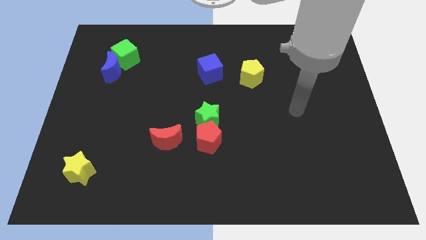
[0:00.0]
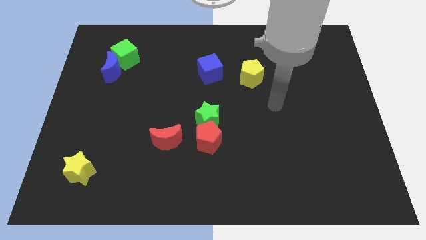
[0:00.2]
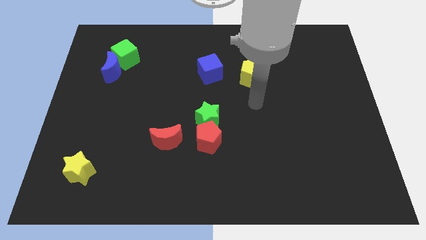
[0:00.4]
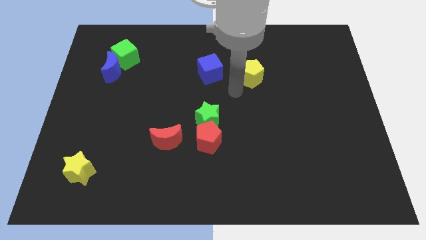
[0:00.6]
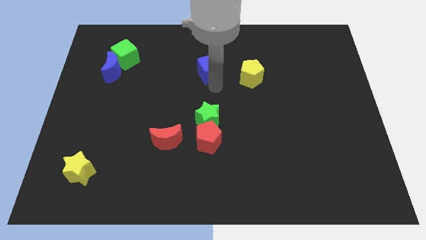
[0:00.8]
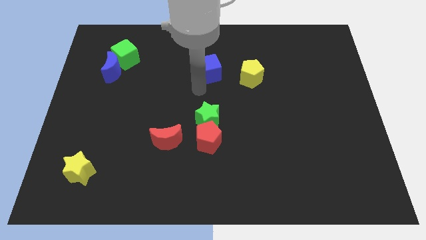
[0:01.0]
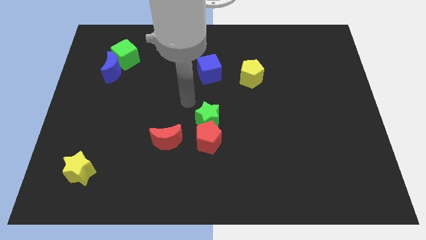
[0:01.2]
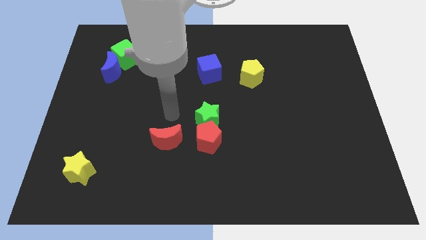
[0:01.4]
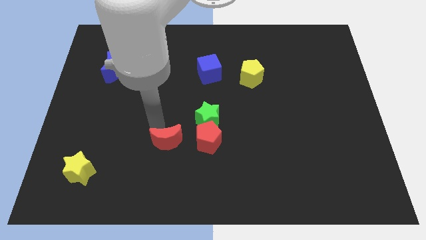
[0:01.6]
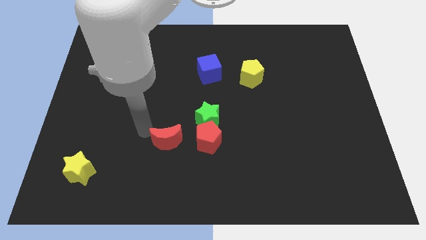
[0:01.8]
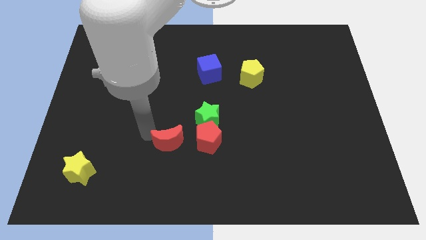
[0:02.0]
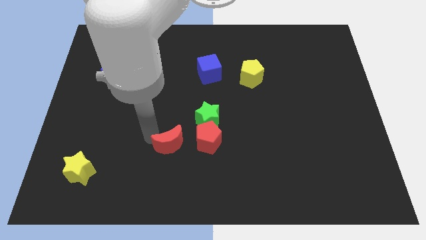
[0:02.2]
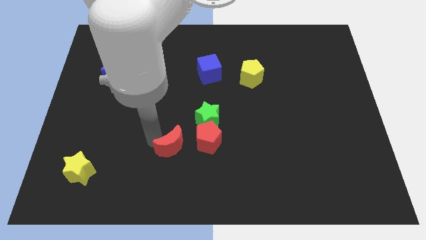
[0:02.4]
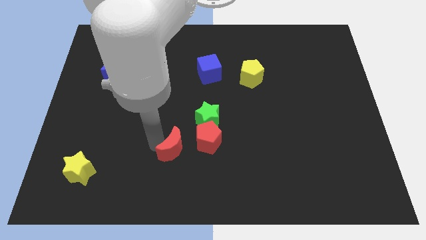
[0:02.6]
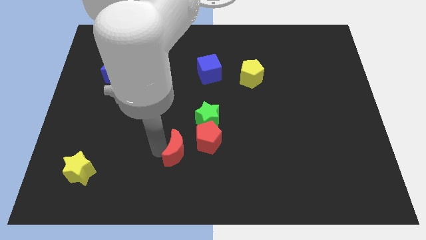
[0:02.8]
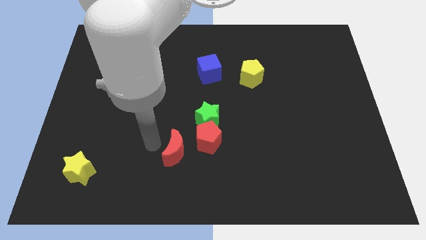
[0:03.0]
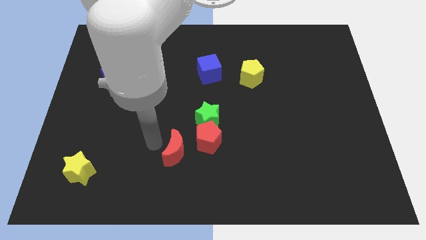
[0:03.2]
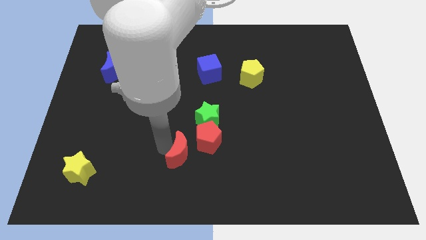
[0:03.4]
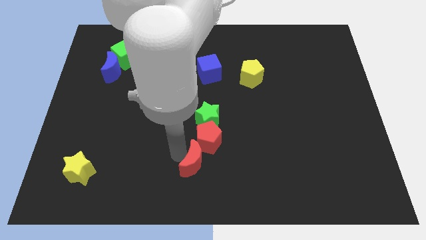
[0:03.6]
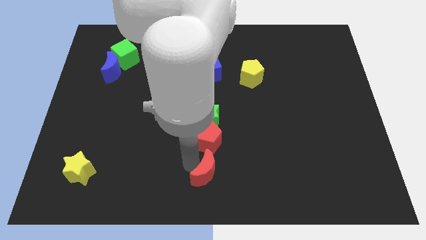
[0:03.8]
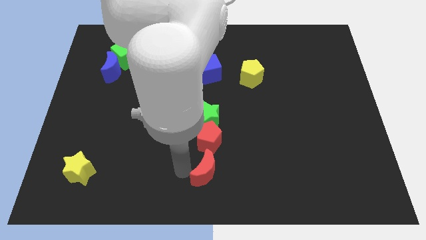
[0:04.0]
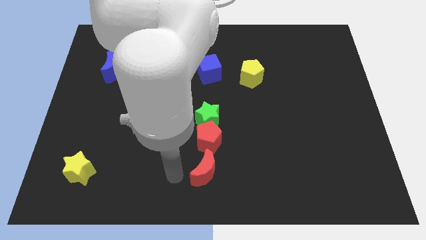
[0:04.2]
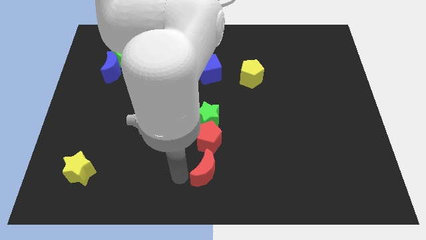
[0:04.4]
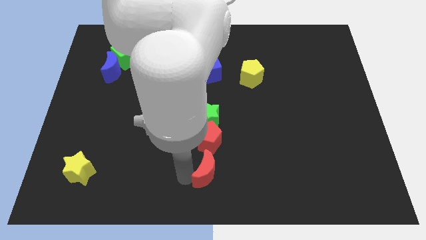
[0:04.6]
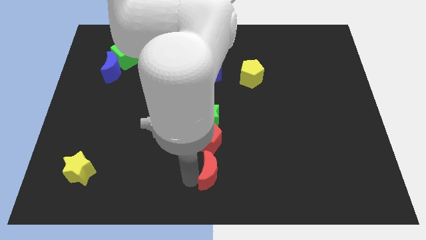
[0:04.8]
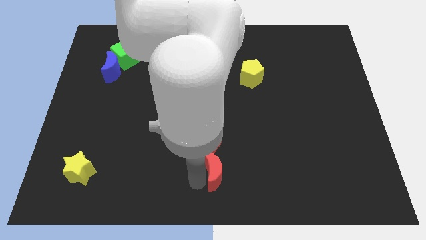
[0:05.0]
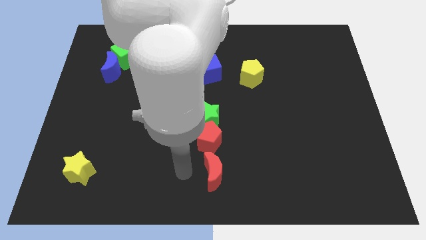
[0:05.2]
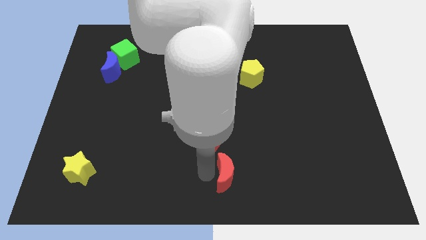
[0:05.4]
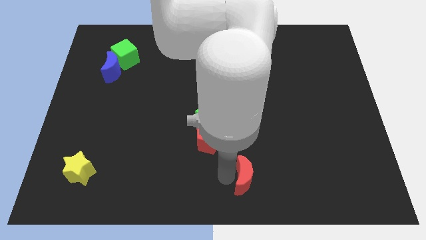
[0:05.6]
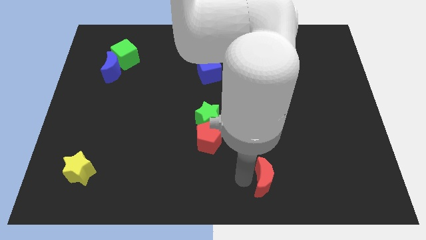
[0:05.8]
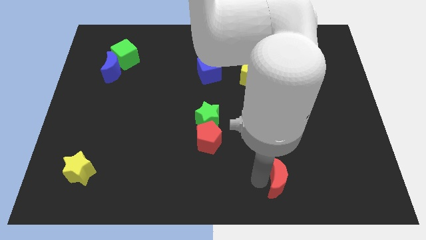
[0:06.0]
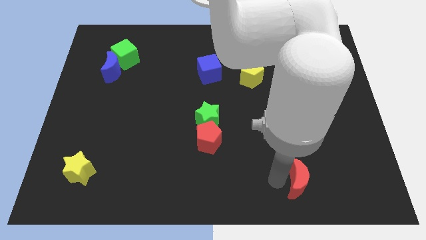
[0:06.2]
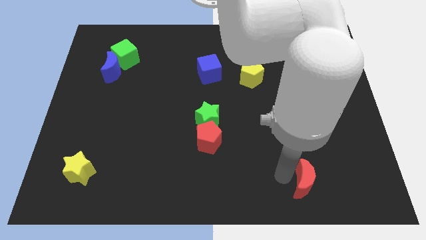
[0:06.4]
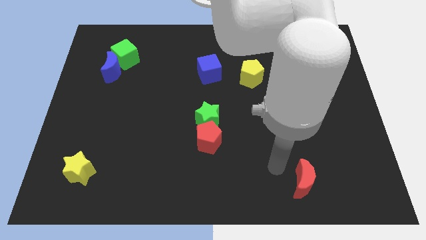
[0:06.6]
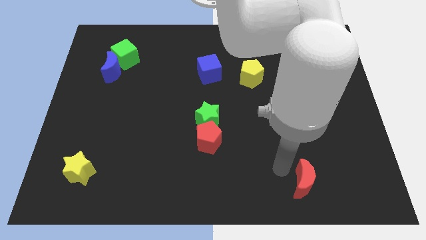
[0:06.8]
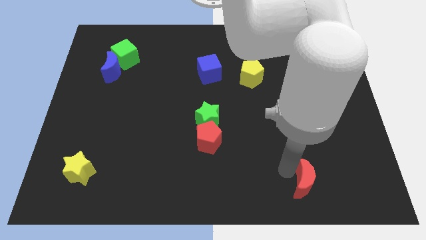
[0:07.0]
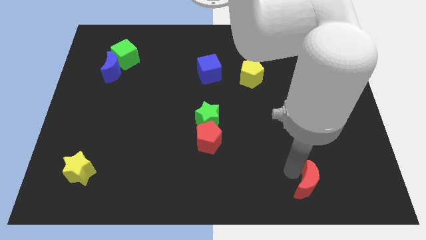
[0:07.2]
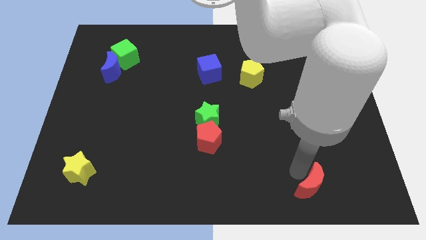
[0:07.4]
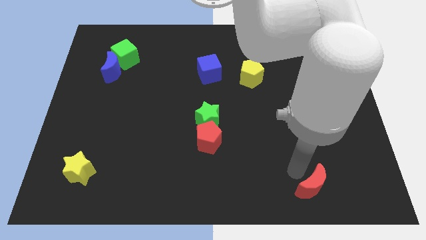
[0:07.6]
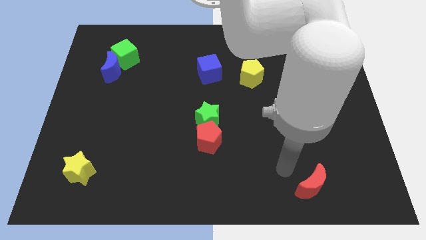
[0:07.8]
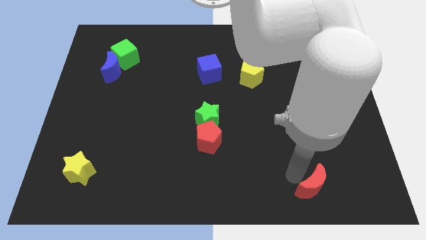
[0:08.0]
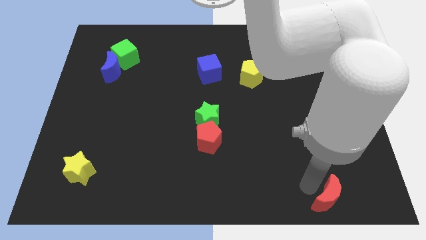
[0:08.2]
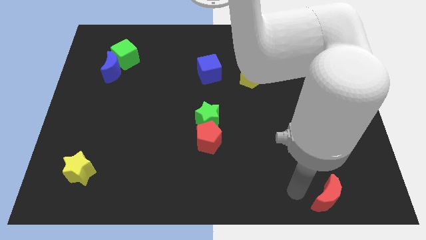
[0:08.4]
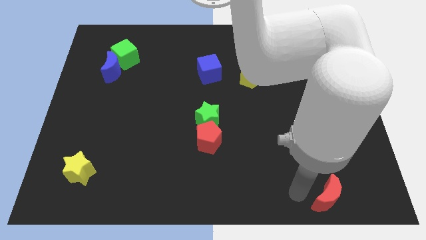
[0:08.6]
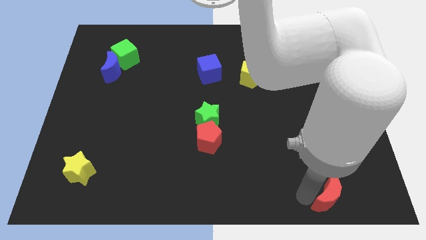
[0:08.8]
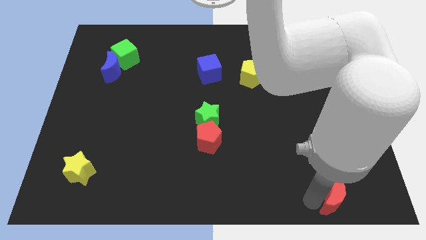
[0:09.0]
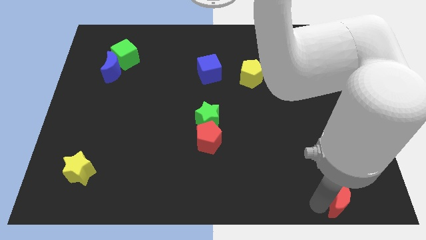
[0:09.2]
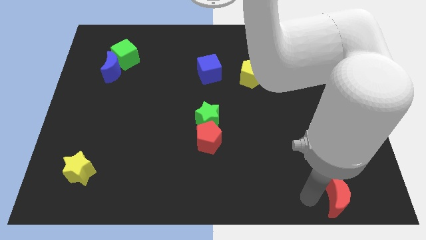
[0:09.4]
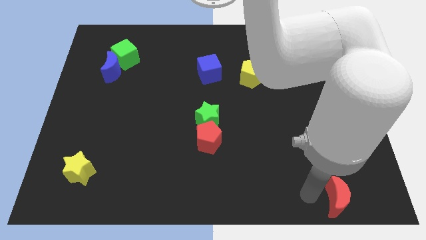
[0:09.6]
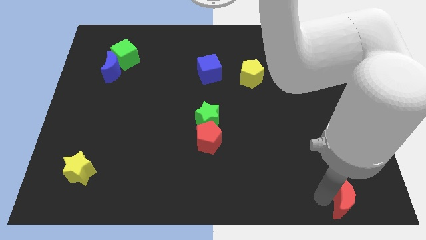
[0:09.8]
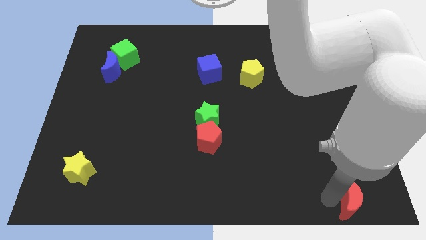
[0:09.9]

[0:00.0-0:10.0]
push the red moon to the bottom right of the board

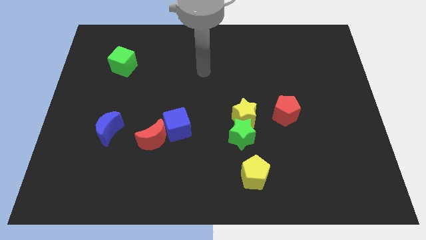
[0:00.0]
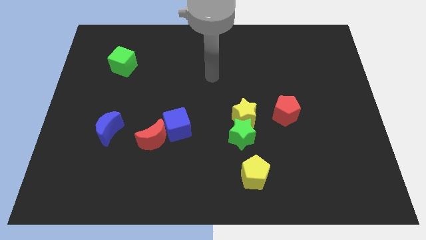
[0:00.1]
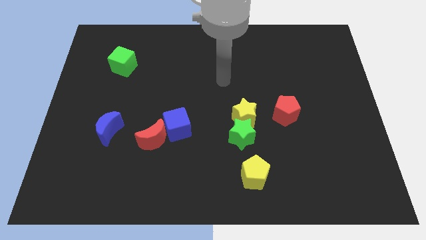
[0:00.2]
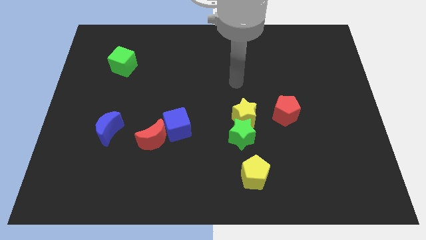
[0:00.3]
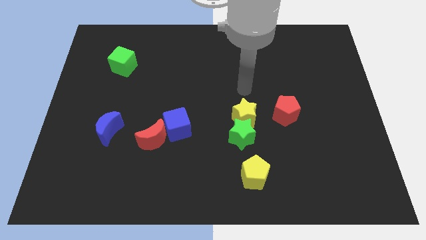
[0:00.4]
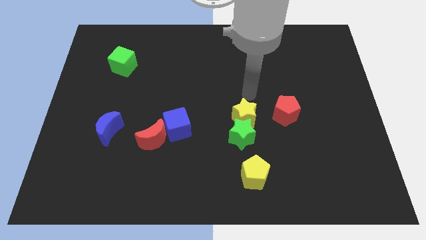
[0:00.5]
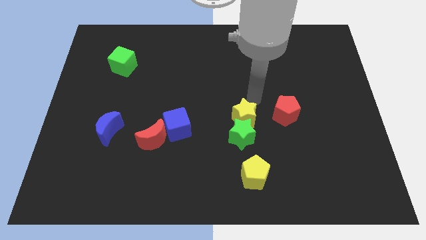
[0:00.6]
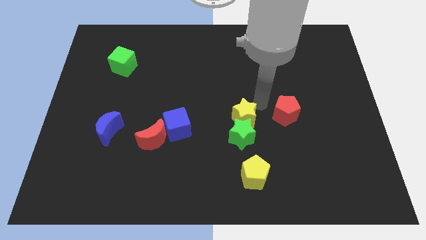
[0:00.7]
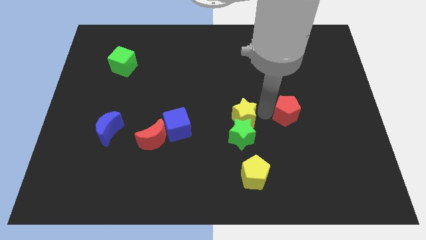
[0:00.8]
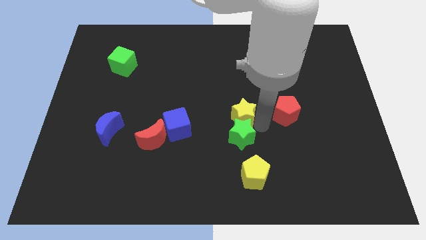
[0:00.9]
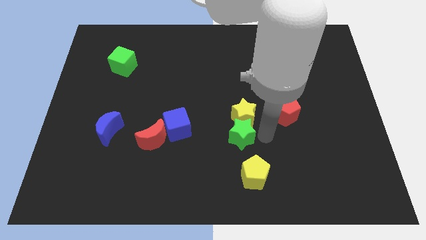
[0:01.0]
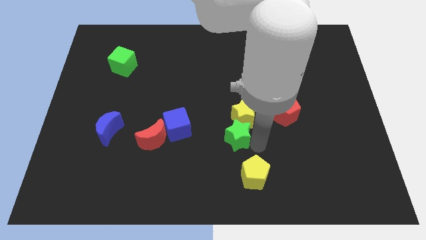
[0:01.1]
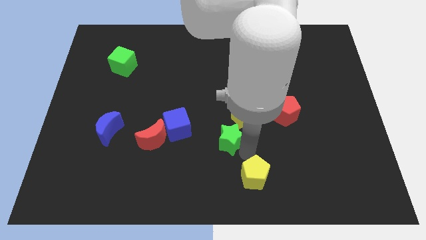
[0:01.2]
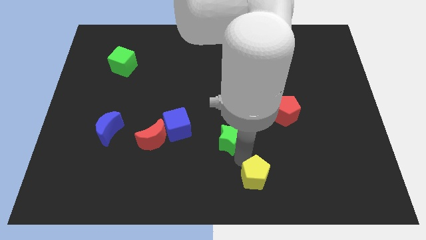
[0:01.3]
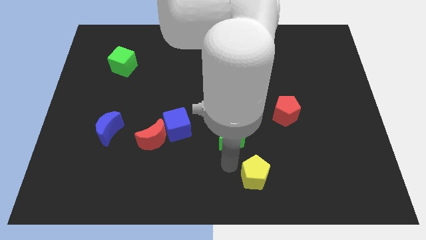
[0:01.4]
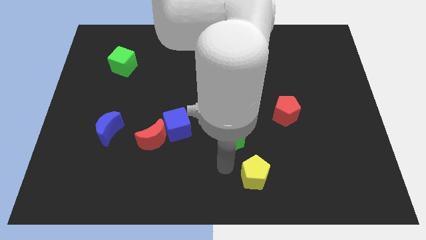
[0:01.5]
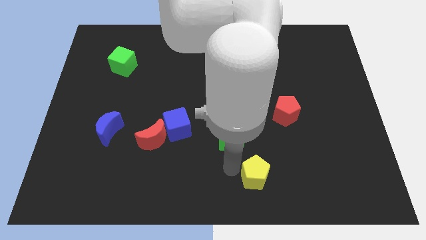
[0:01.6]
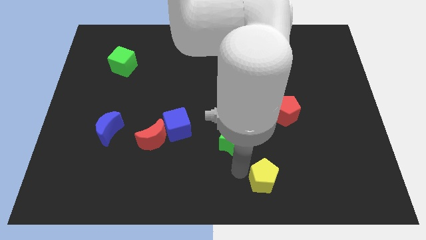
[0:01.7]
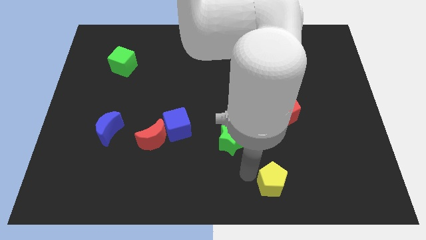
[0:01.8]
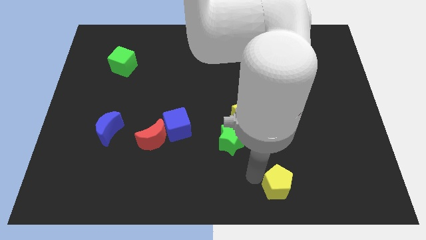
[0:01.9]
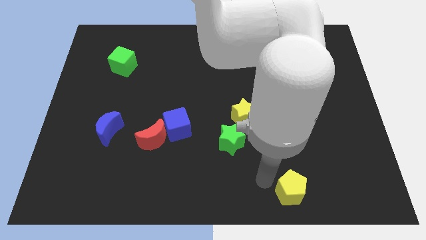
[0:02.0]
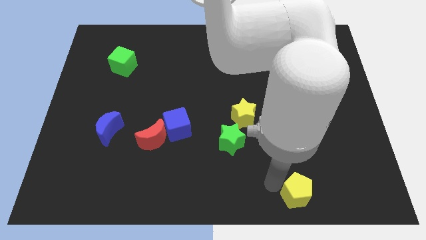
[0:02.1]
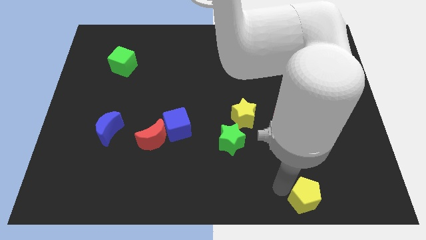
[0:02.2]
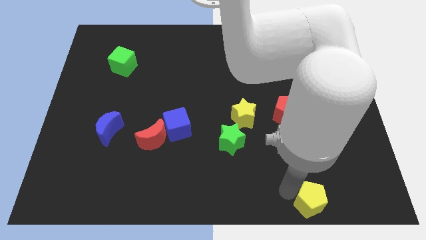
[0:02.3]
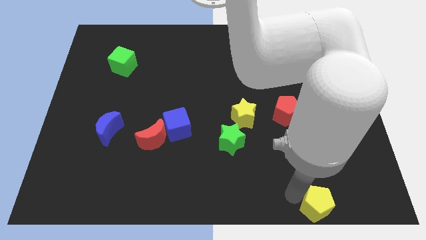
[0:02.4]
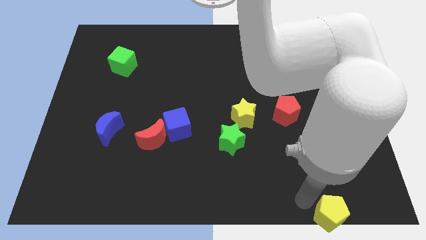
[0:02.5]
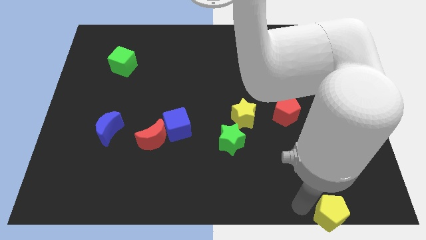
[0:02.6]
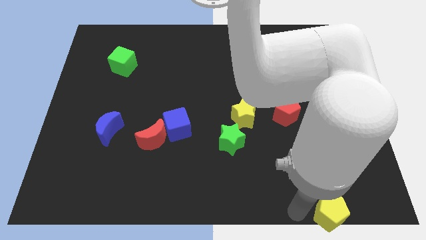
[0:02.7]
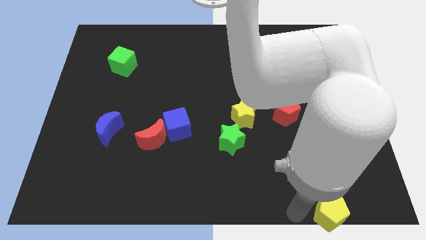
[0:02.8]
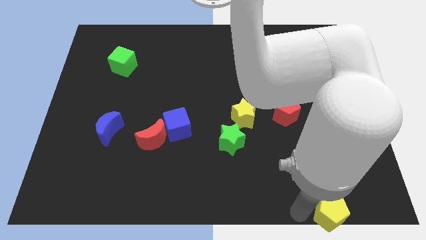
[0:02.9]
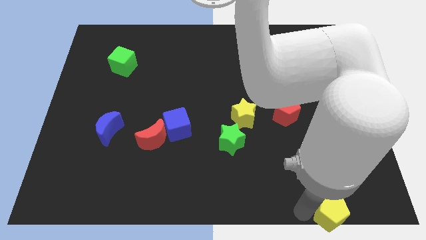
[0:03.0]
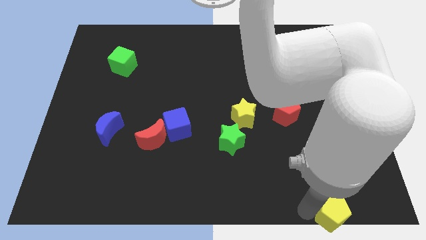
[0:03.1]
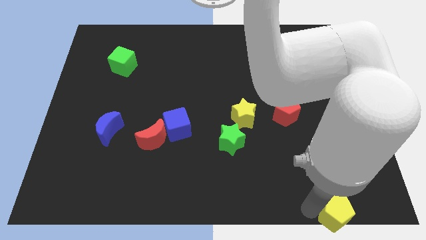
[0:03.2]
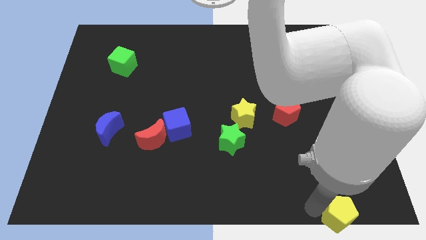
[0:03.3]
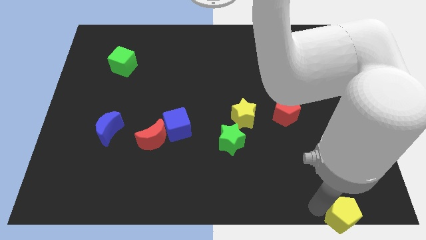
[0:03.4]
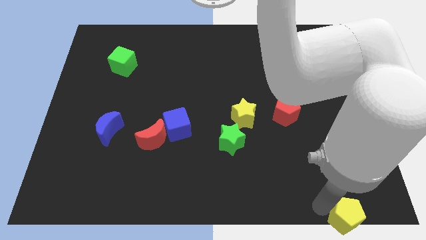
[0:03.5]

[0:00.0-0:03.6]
put the yellow pentagon to the bottom right corner
